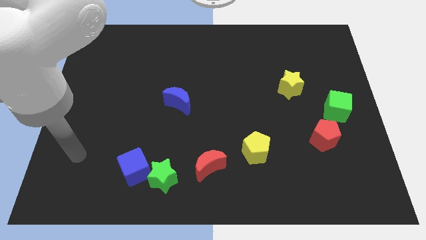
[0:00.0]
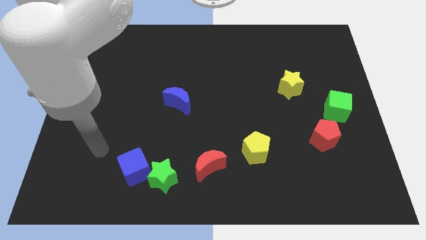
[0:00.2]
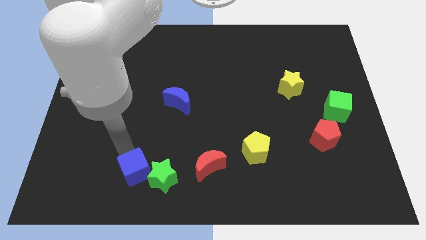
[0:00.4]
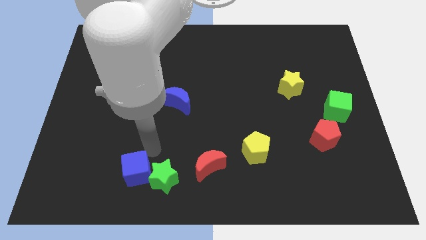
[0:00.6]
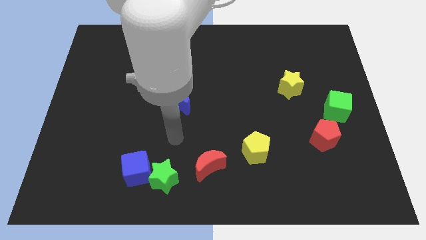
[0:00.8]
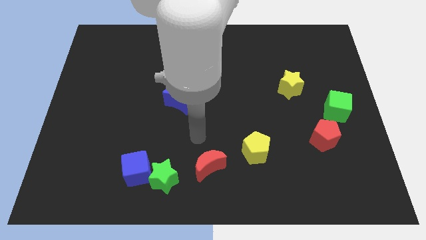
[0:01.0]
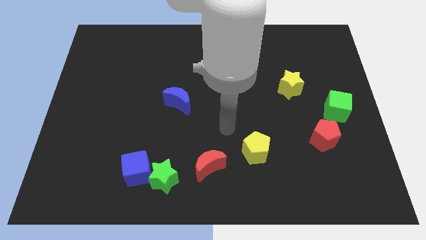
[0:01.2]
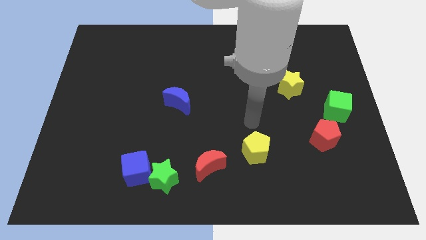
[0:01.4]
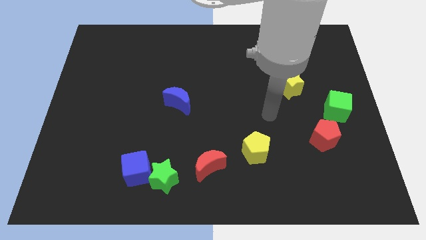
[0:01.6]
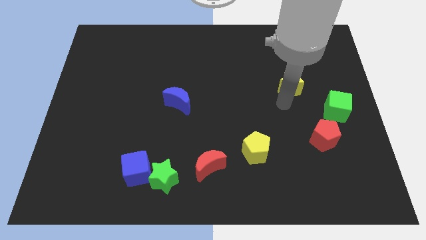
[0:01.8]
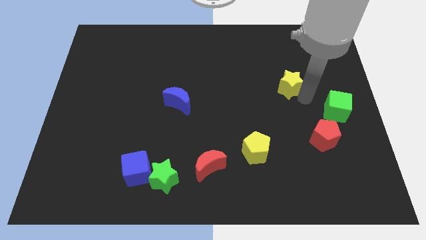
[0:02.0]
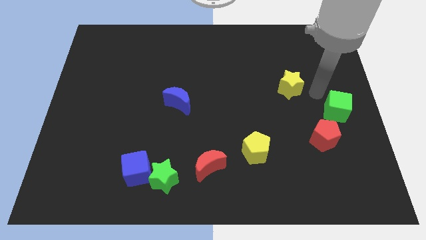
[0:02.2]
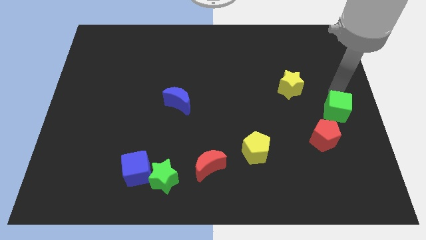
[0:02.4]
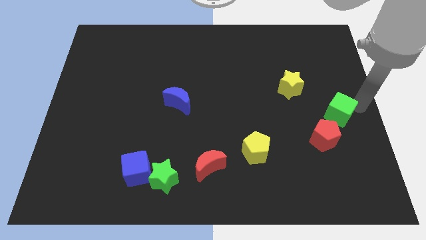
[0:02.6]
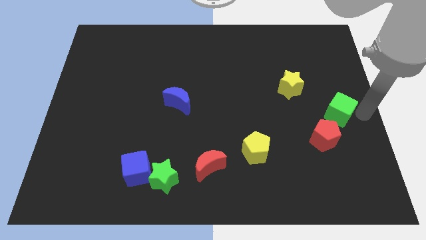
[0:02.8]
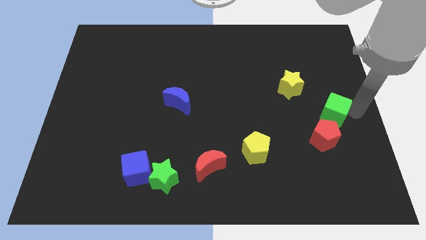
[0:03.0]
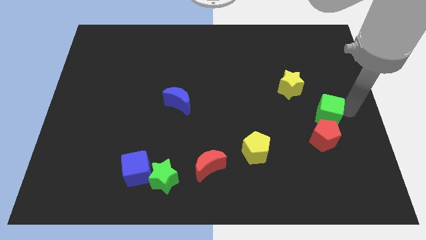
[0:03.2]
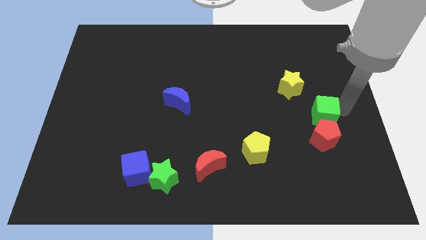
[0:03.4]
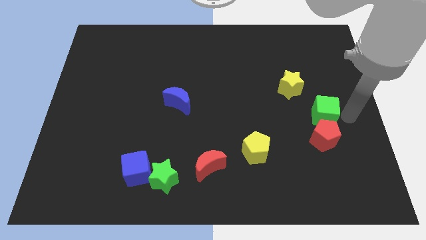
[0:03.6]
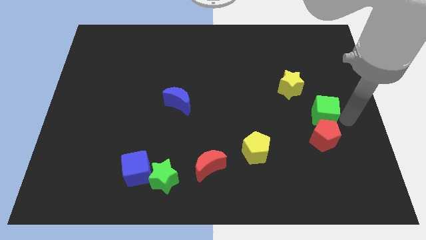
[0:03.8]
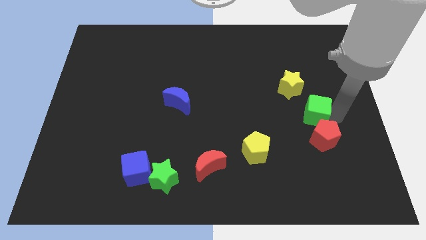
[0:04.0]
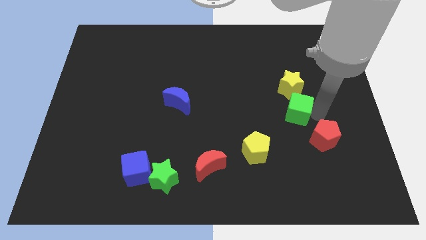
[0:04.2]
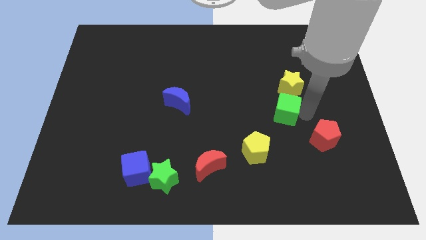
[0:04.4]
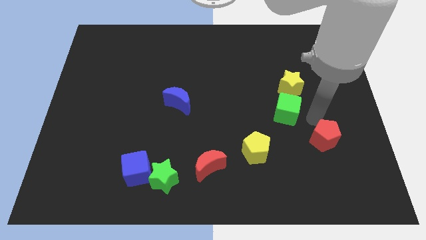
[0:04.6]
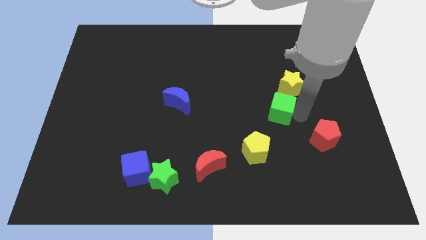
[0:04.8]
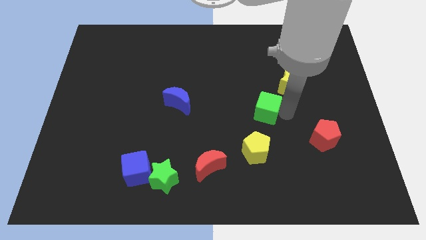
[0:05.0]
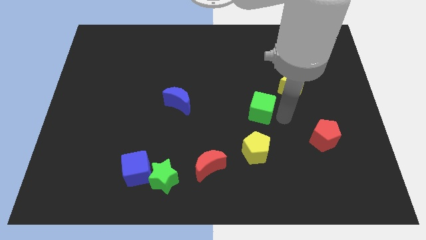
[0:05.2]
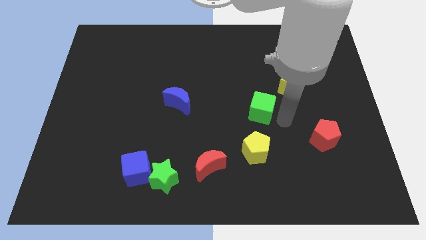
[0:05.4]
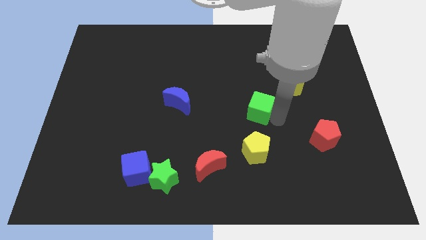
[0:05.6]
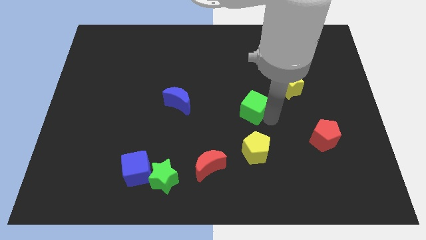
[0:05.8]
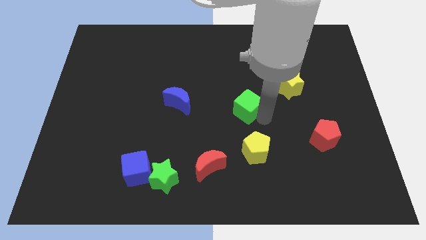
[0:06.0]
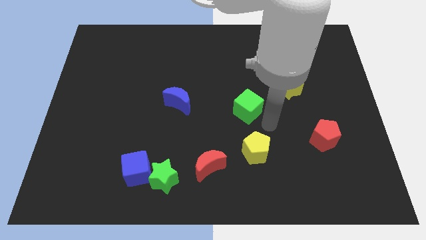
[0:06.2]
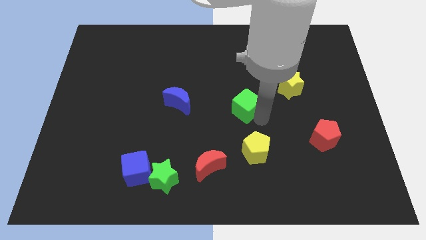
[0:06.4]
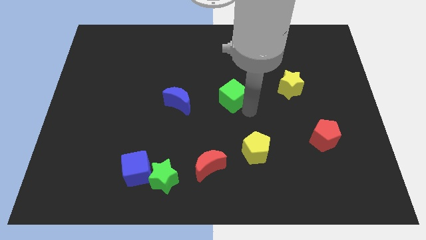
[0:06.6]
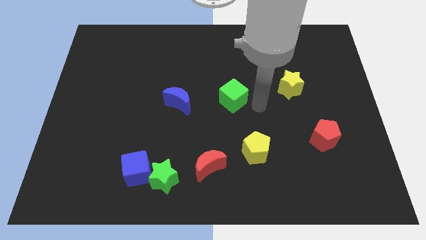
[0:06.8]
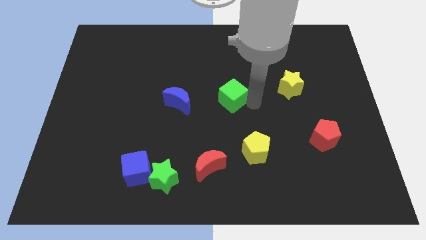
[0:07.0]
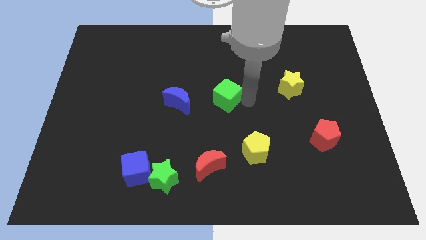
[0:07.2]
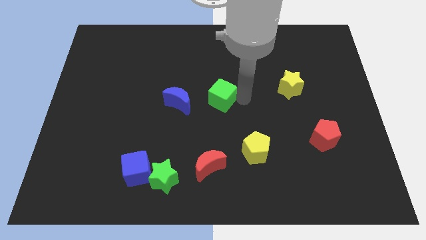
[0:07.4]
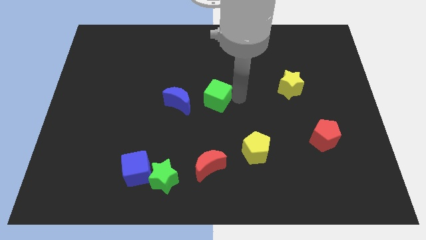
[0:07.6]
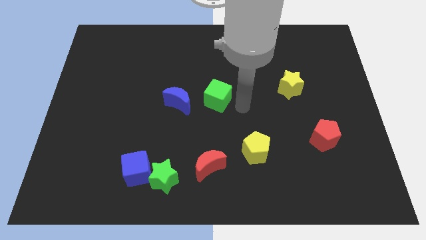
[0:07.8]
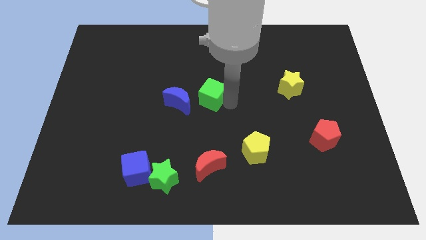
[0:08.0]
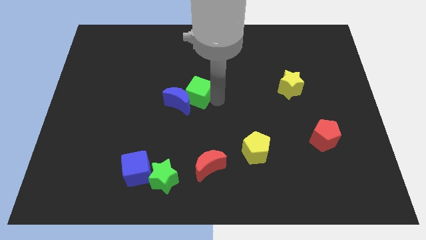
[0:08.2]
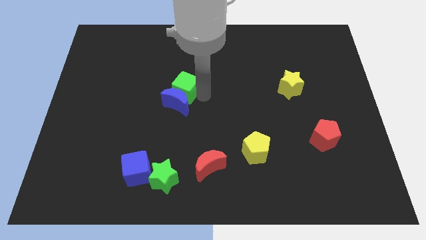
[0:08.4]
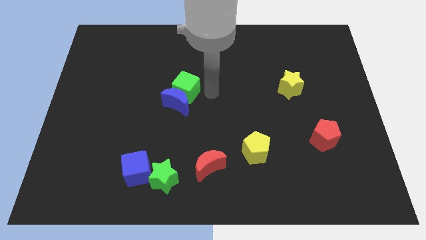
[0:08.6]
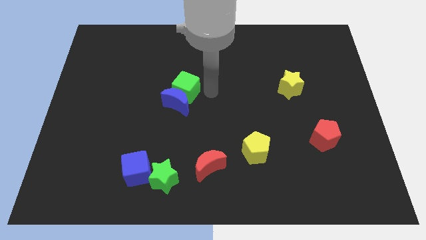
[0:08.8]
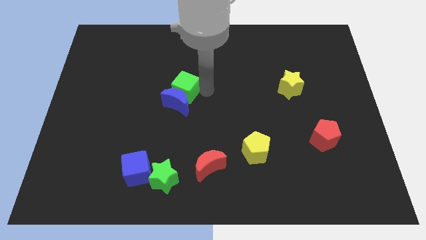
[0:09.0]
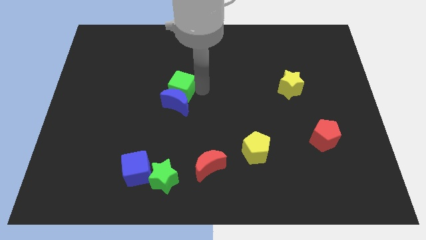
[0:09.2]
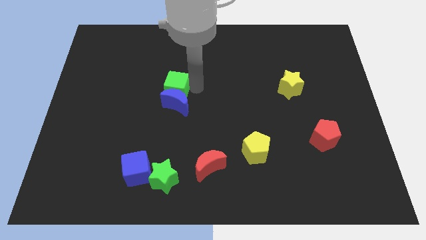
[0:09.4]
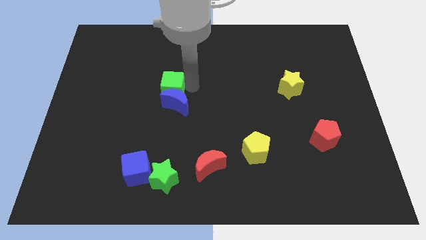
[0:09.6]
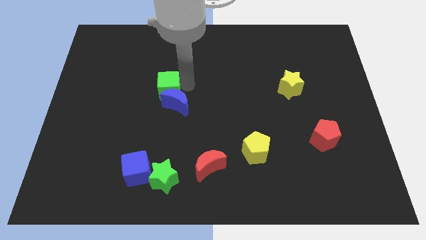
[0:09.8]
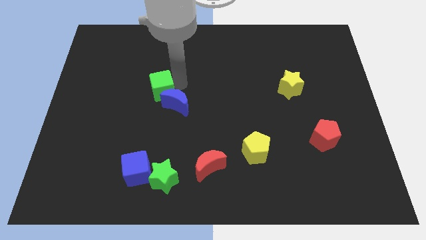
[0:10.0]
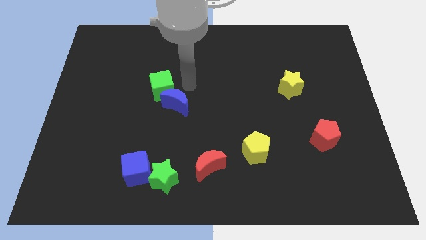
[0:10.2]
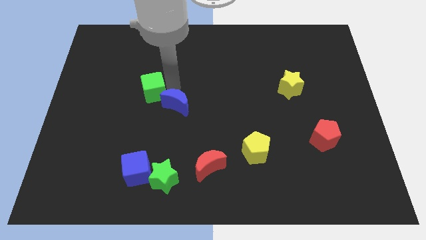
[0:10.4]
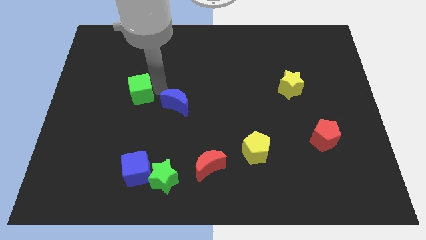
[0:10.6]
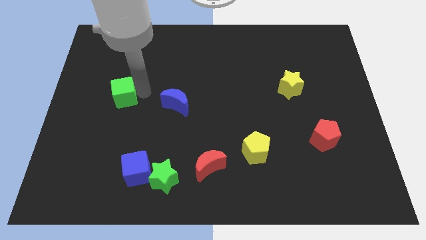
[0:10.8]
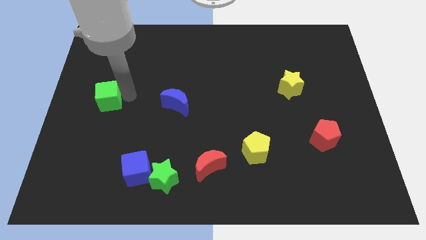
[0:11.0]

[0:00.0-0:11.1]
slide the green cube to the left side

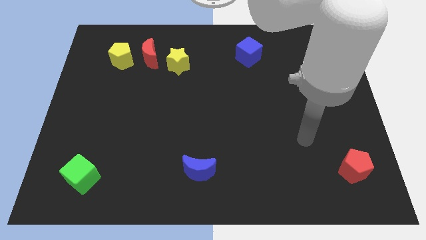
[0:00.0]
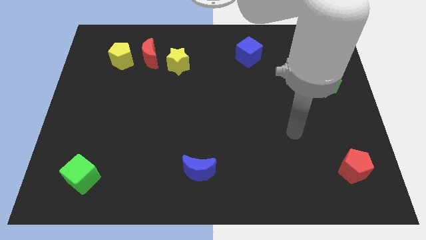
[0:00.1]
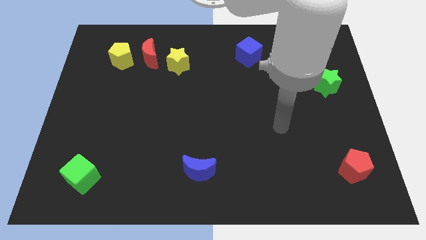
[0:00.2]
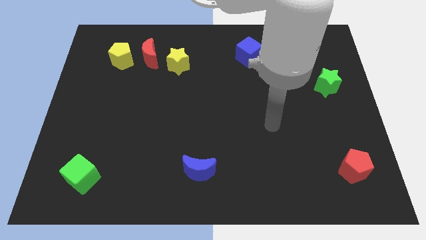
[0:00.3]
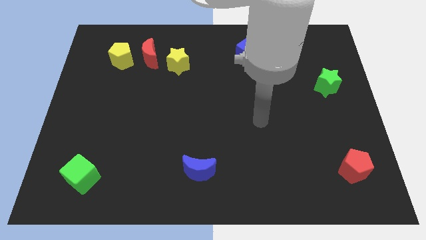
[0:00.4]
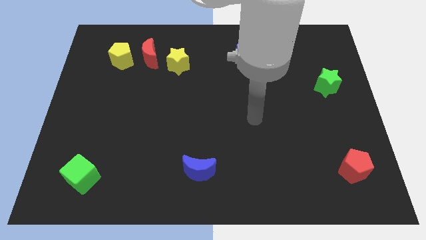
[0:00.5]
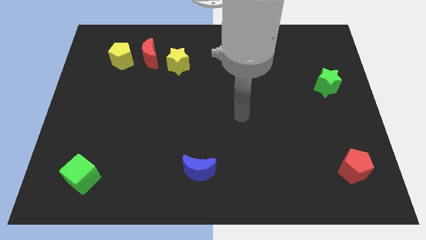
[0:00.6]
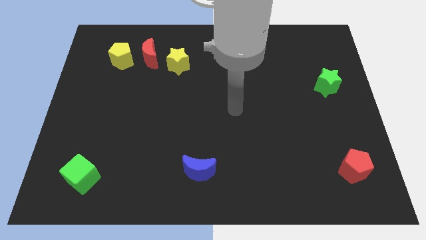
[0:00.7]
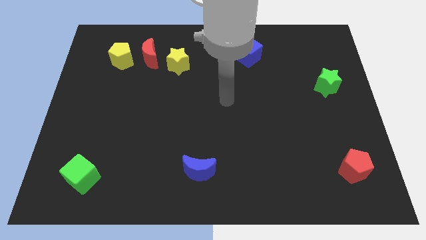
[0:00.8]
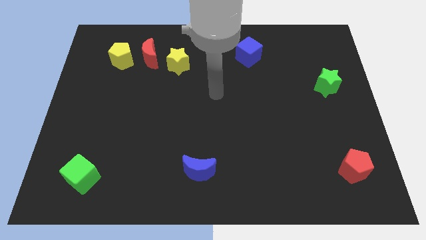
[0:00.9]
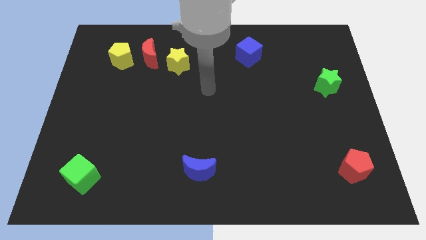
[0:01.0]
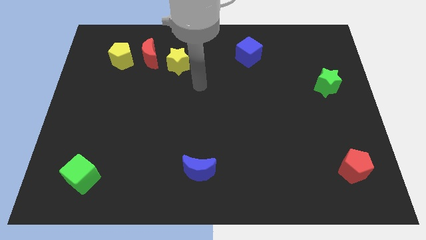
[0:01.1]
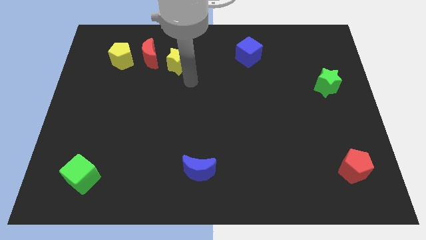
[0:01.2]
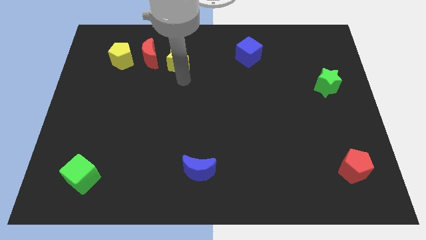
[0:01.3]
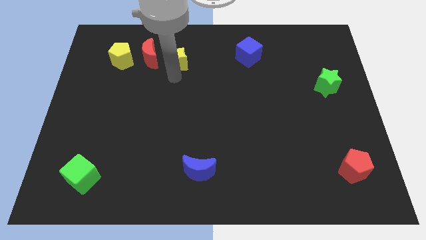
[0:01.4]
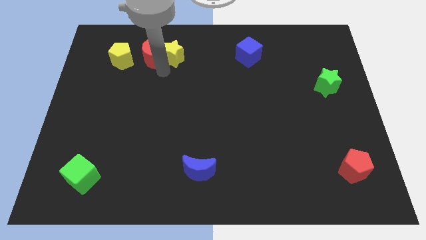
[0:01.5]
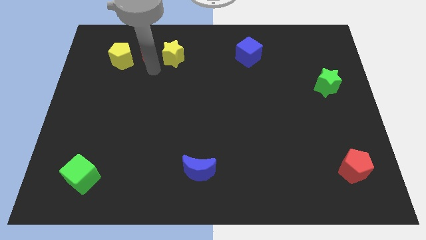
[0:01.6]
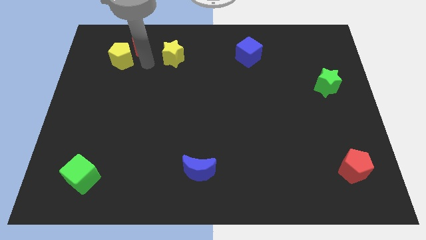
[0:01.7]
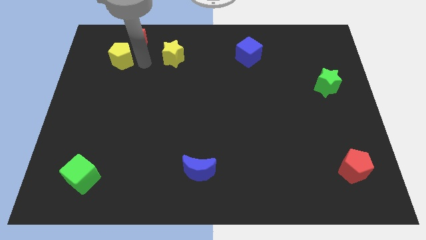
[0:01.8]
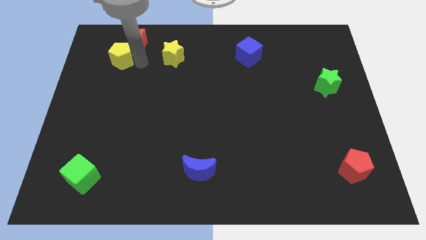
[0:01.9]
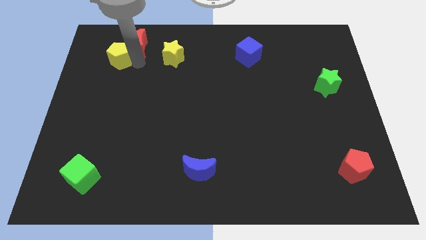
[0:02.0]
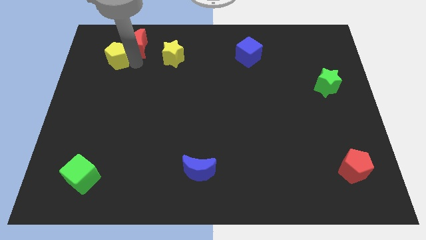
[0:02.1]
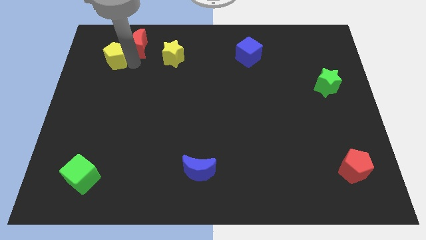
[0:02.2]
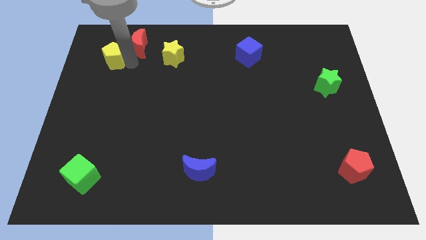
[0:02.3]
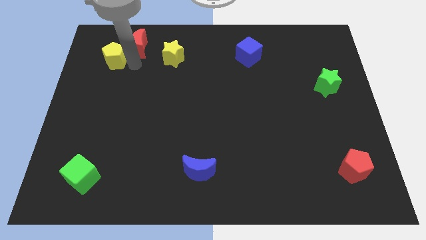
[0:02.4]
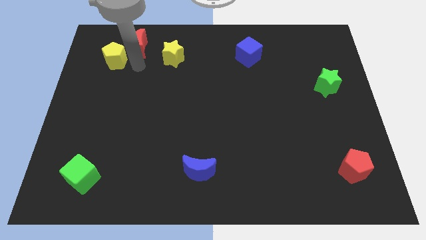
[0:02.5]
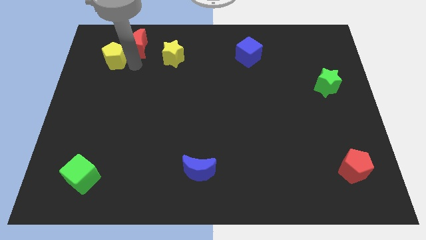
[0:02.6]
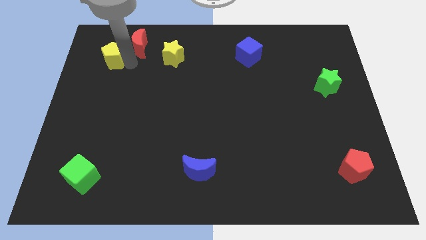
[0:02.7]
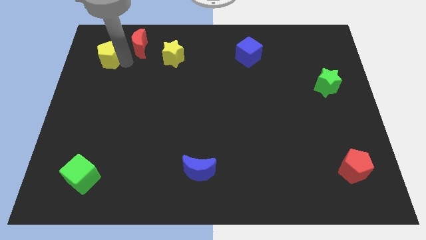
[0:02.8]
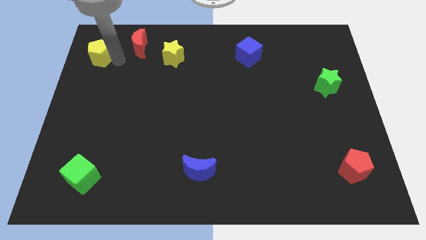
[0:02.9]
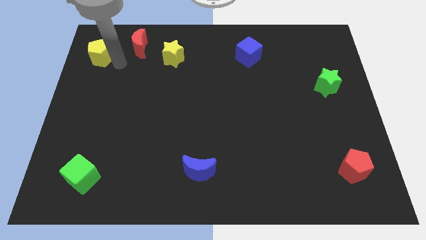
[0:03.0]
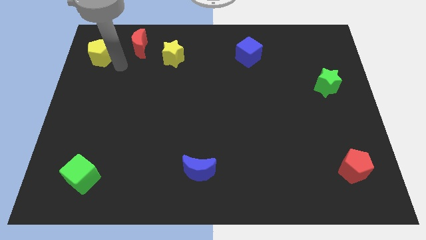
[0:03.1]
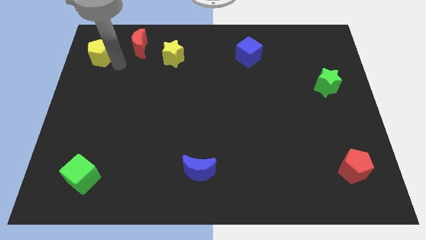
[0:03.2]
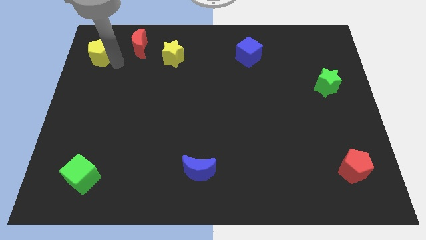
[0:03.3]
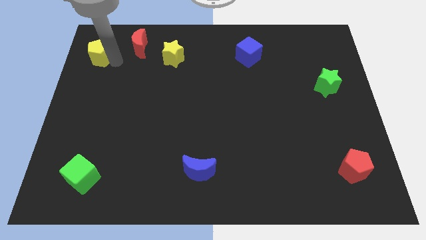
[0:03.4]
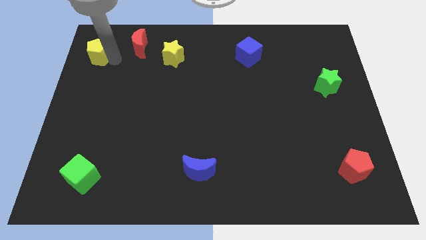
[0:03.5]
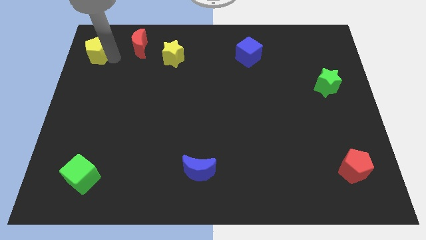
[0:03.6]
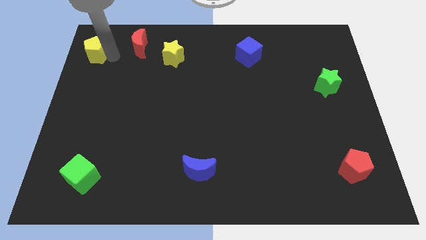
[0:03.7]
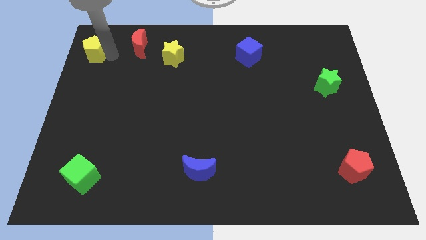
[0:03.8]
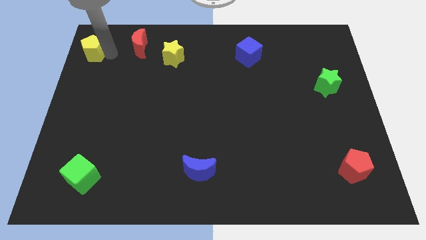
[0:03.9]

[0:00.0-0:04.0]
slide the yellow pentagon to the top left
